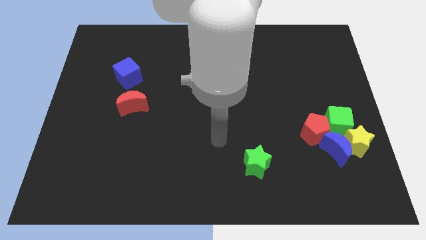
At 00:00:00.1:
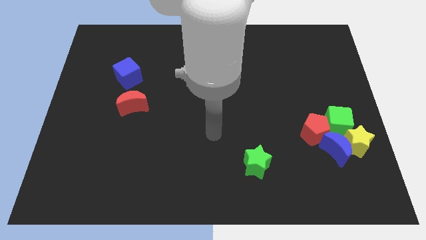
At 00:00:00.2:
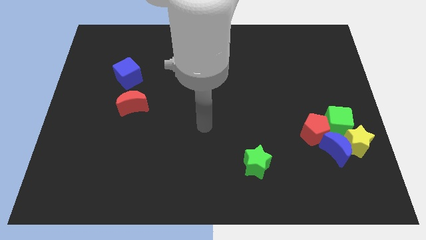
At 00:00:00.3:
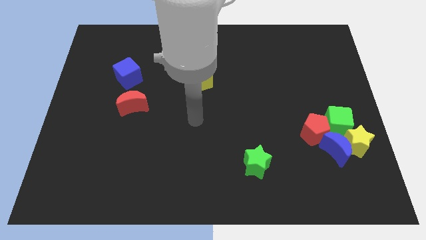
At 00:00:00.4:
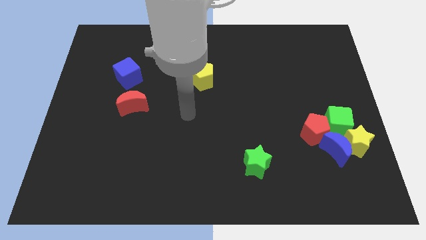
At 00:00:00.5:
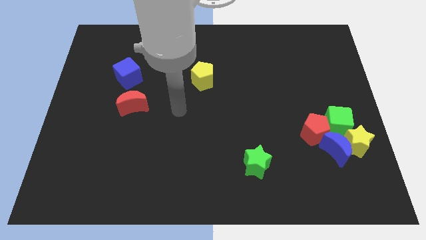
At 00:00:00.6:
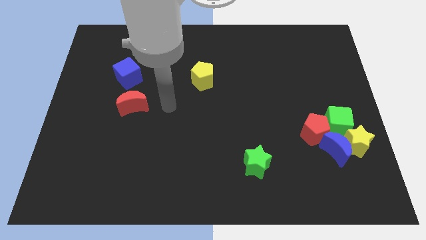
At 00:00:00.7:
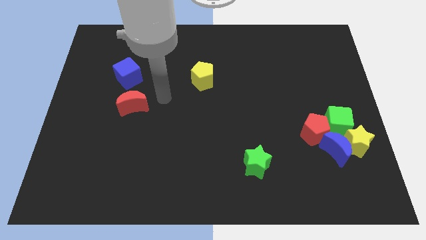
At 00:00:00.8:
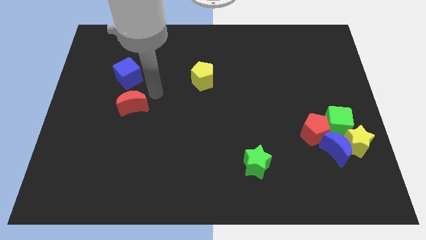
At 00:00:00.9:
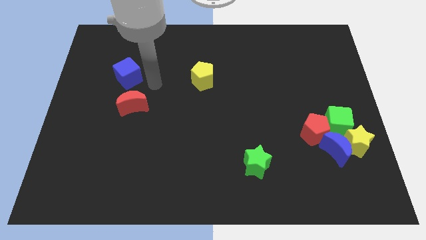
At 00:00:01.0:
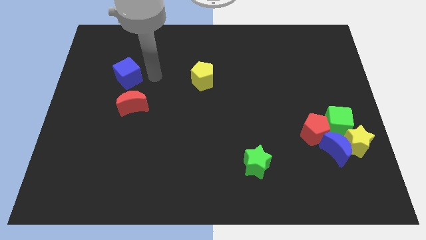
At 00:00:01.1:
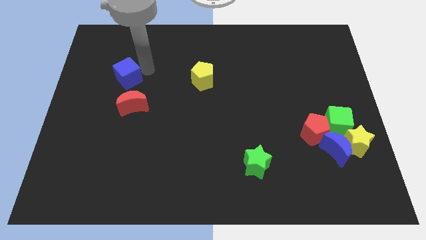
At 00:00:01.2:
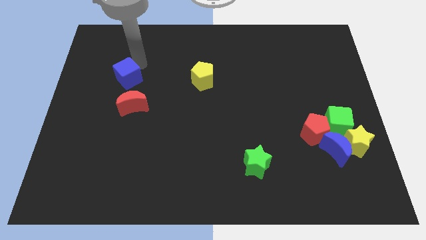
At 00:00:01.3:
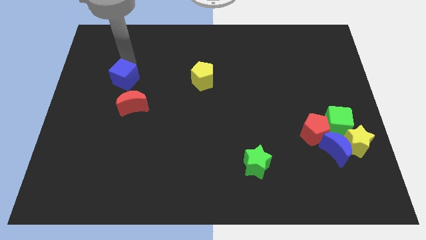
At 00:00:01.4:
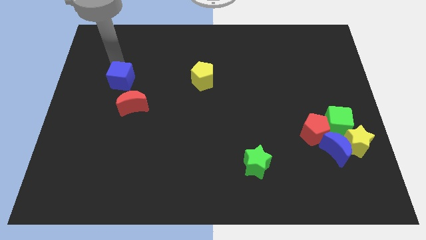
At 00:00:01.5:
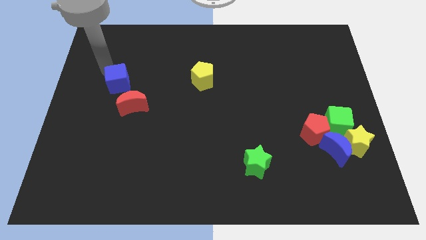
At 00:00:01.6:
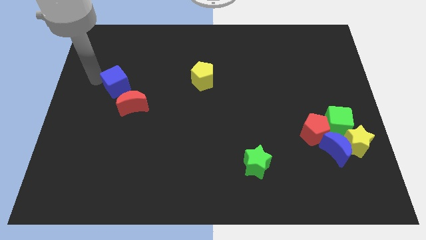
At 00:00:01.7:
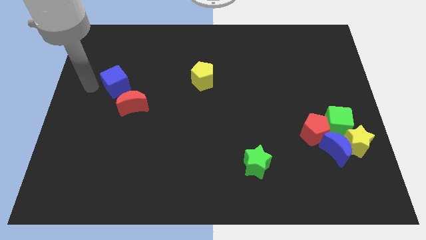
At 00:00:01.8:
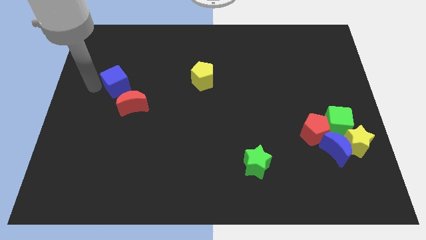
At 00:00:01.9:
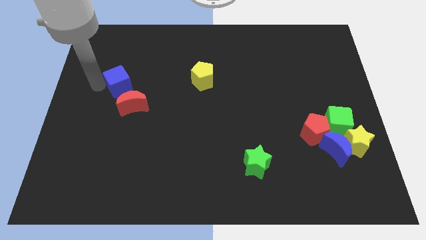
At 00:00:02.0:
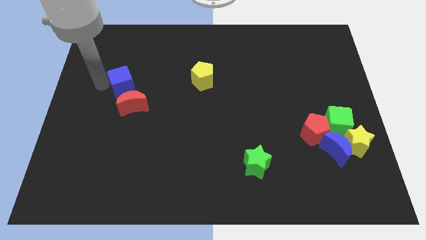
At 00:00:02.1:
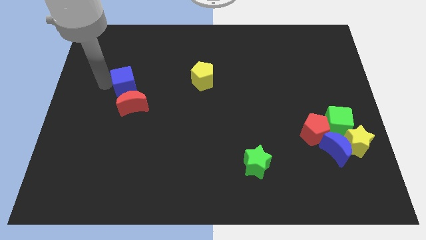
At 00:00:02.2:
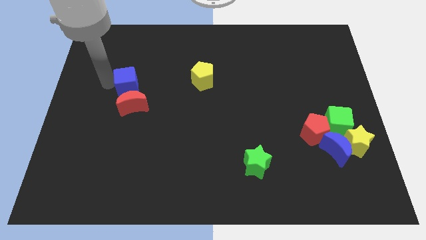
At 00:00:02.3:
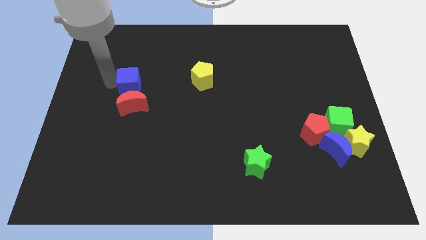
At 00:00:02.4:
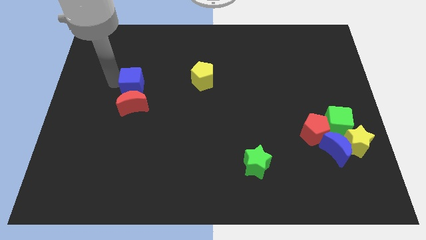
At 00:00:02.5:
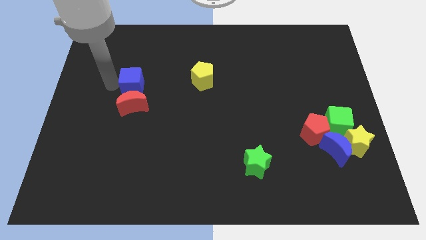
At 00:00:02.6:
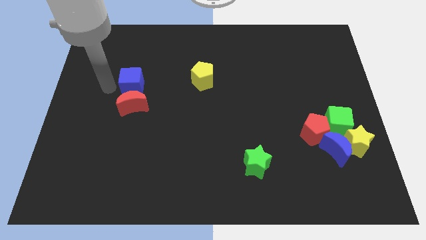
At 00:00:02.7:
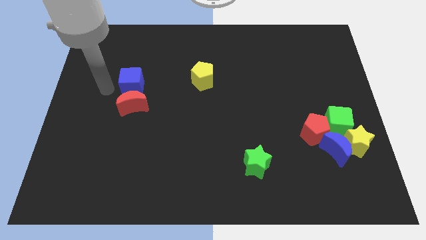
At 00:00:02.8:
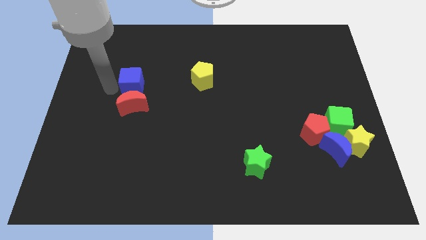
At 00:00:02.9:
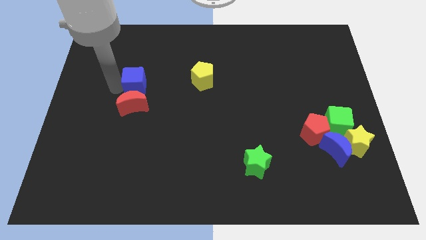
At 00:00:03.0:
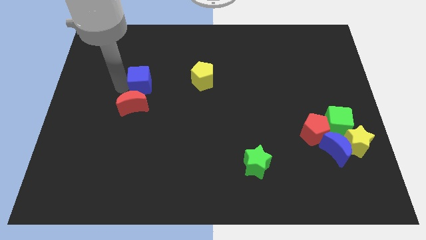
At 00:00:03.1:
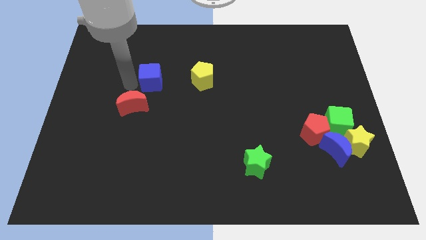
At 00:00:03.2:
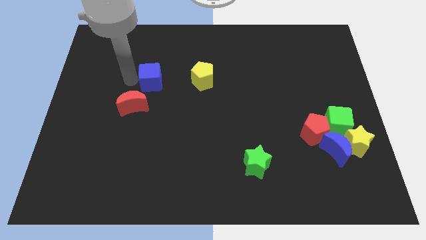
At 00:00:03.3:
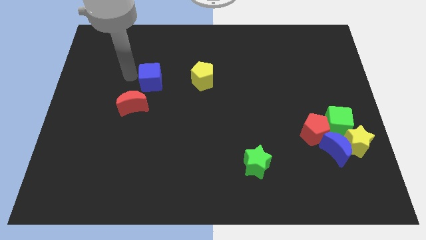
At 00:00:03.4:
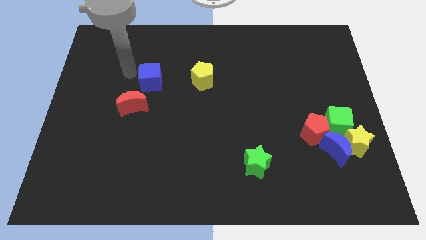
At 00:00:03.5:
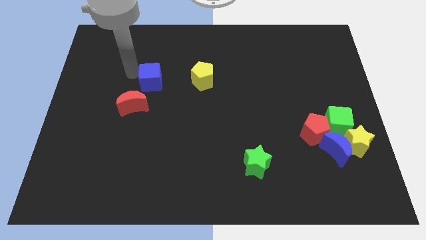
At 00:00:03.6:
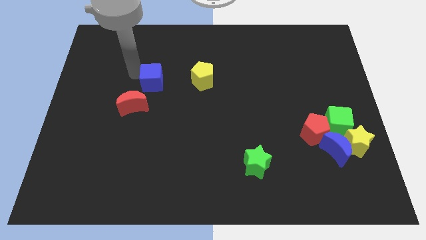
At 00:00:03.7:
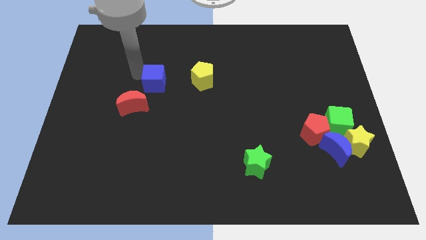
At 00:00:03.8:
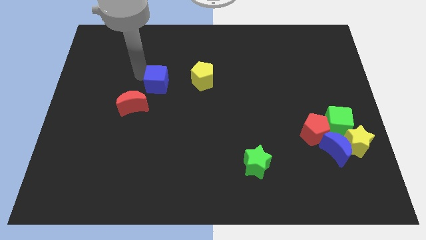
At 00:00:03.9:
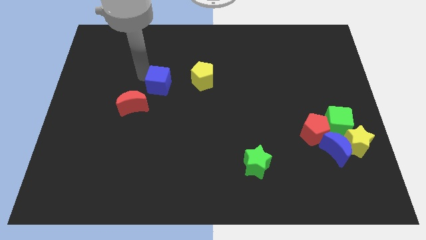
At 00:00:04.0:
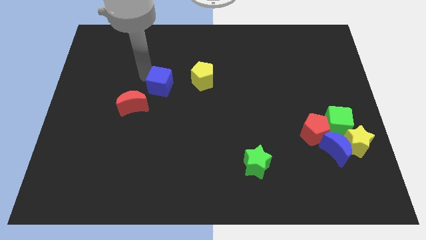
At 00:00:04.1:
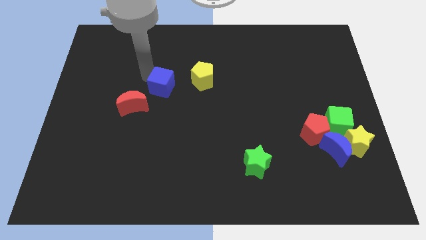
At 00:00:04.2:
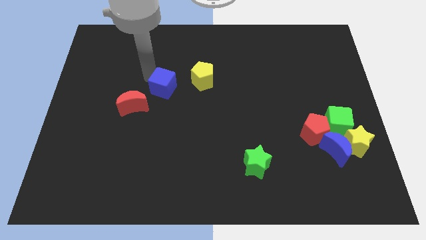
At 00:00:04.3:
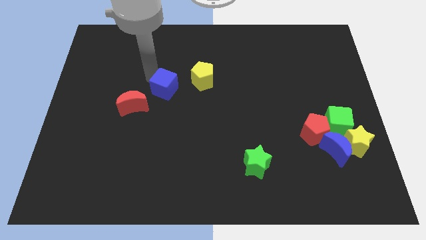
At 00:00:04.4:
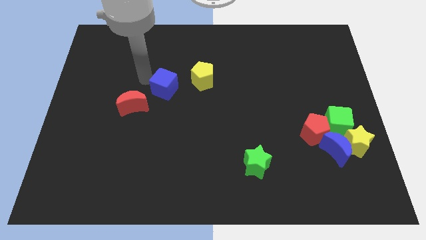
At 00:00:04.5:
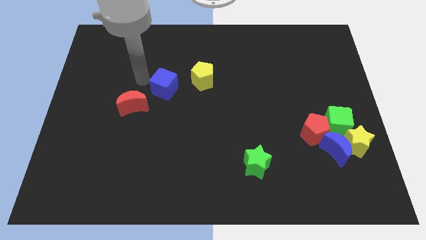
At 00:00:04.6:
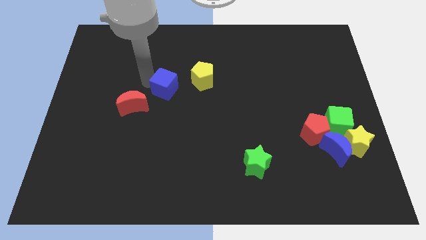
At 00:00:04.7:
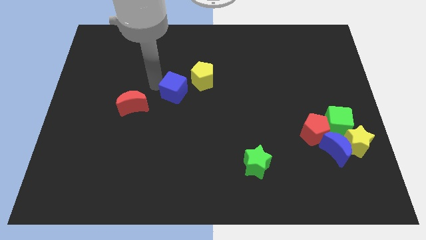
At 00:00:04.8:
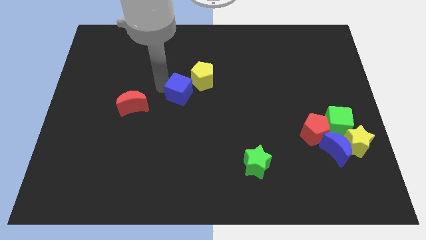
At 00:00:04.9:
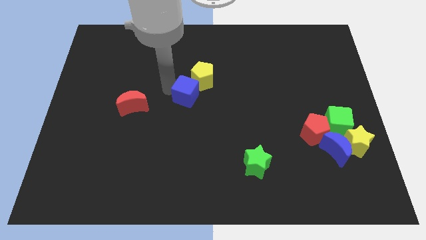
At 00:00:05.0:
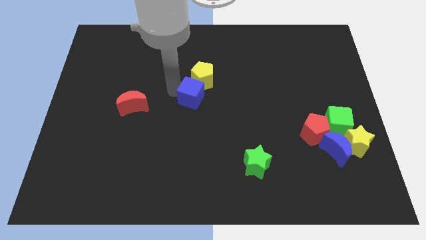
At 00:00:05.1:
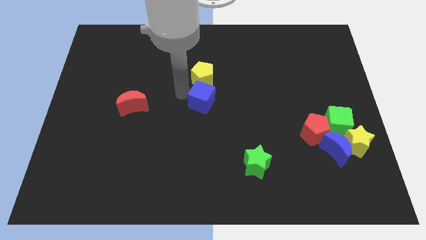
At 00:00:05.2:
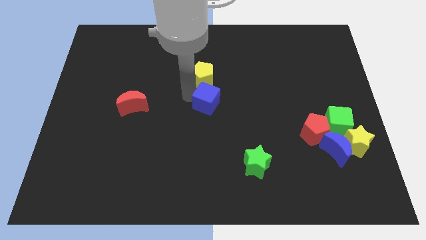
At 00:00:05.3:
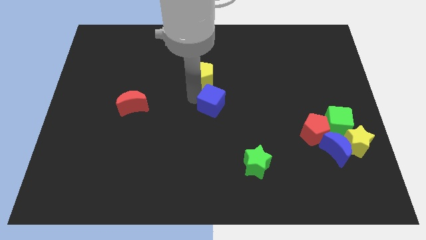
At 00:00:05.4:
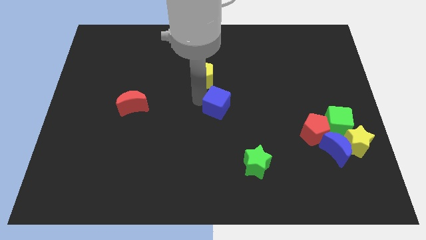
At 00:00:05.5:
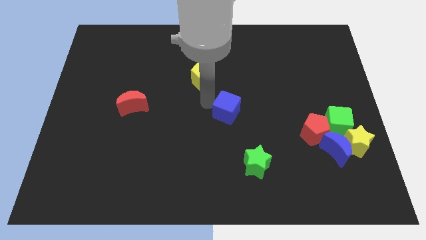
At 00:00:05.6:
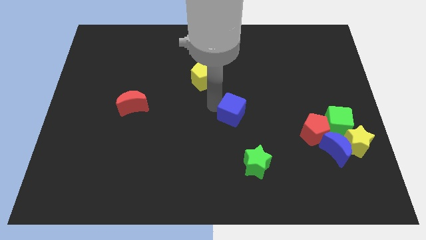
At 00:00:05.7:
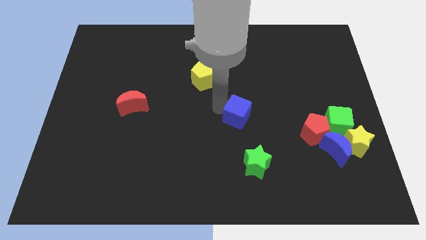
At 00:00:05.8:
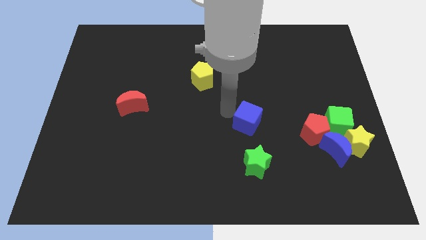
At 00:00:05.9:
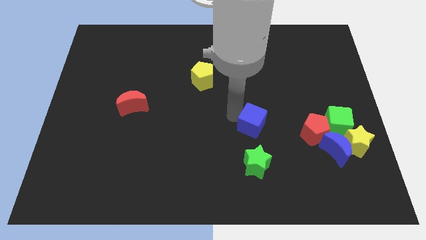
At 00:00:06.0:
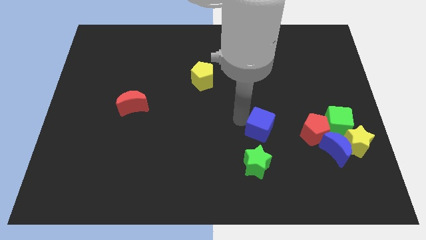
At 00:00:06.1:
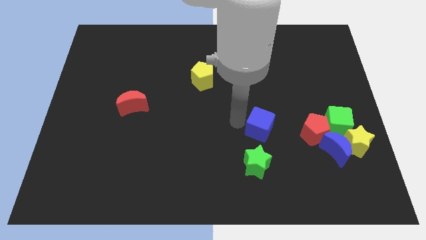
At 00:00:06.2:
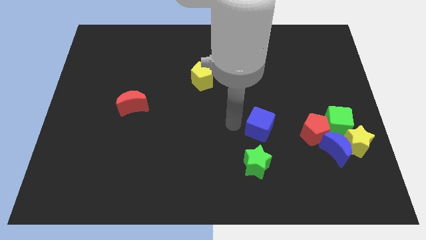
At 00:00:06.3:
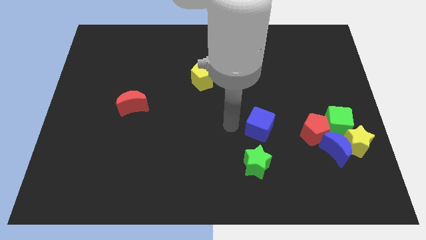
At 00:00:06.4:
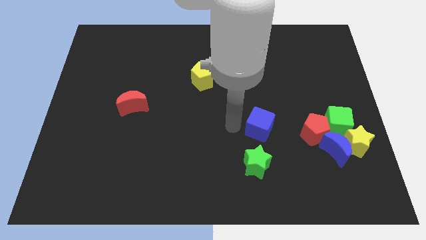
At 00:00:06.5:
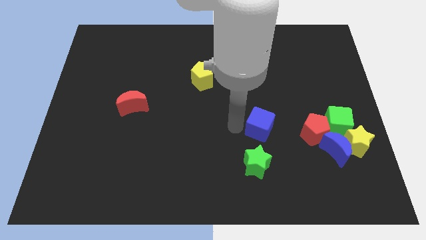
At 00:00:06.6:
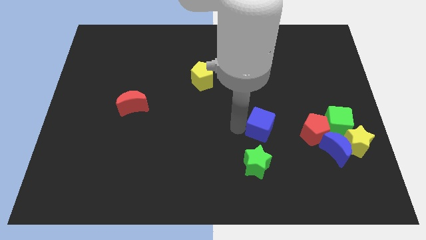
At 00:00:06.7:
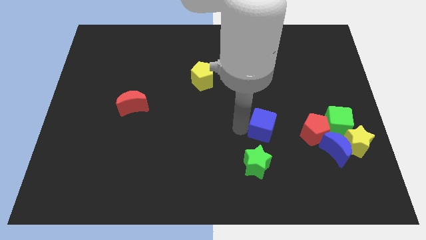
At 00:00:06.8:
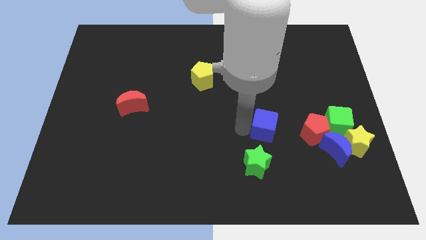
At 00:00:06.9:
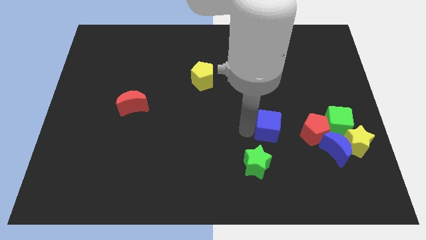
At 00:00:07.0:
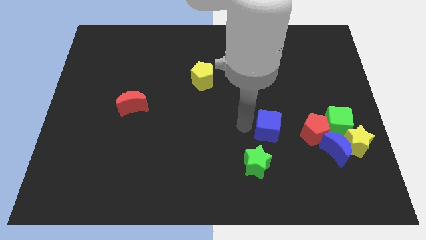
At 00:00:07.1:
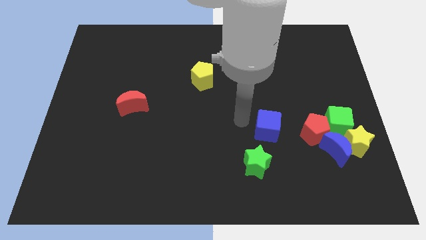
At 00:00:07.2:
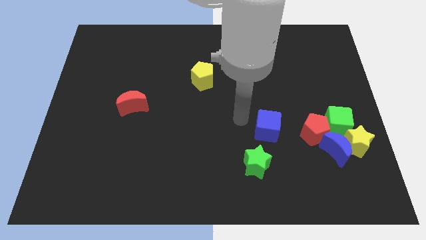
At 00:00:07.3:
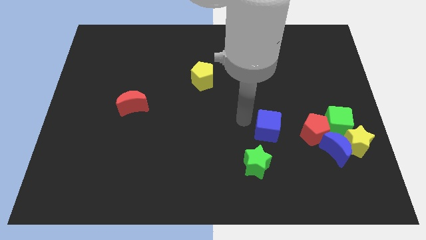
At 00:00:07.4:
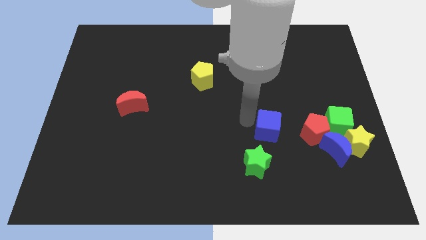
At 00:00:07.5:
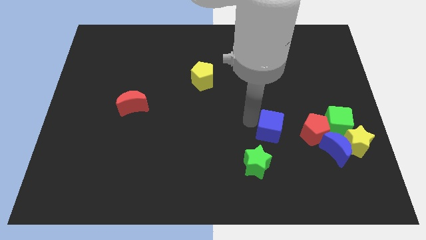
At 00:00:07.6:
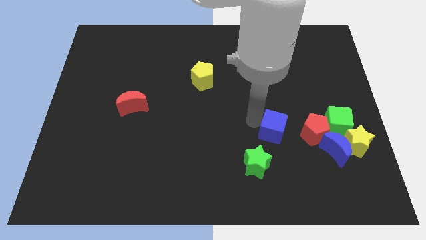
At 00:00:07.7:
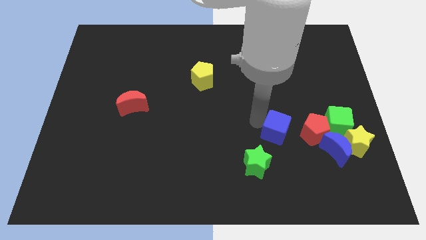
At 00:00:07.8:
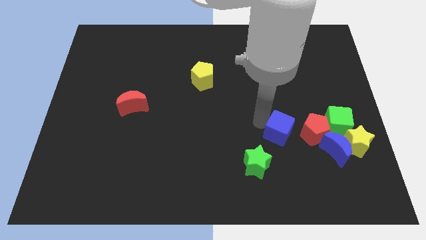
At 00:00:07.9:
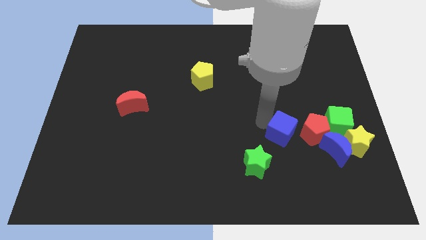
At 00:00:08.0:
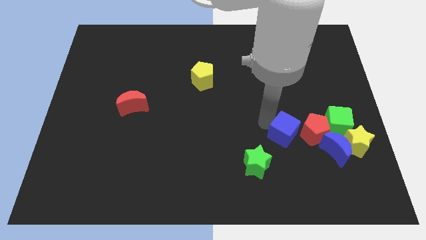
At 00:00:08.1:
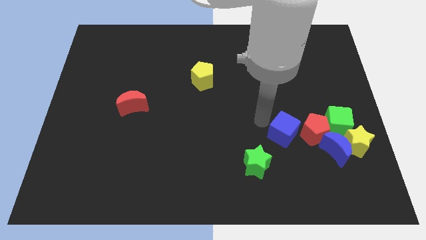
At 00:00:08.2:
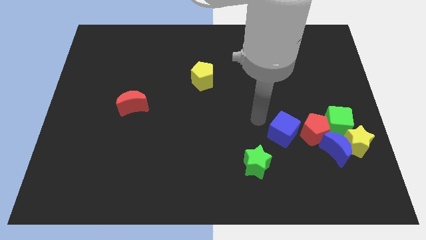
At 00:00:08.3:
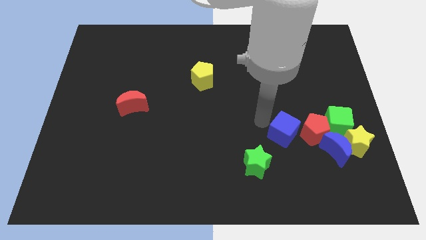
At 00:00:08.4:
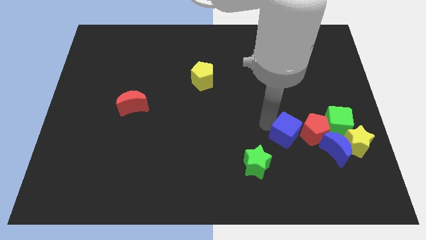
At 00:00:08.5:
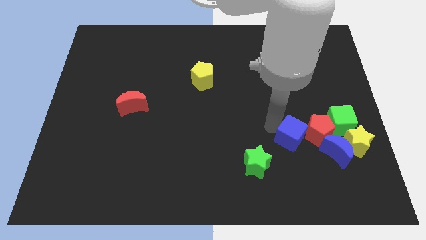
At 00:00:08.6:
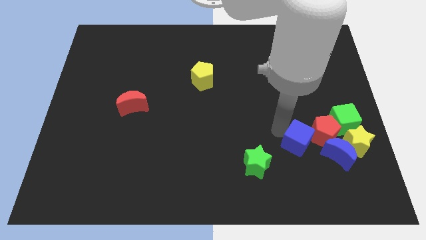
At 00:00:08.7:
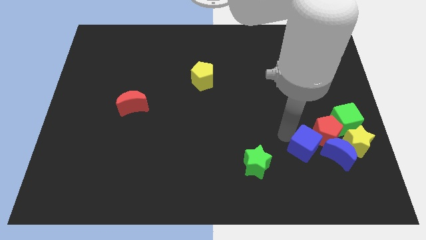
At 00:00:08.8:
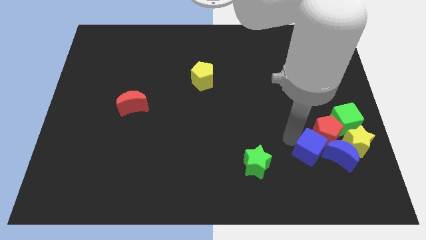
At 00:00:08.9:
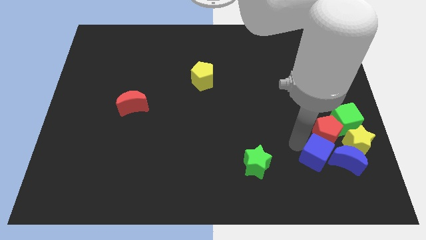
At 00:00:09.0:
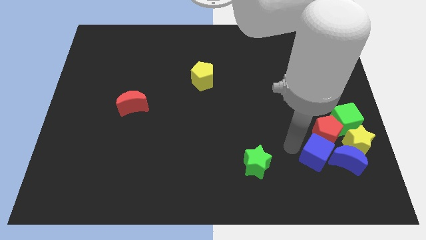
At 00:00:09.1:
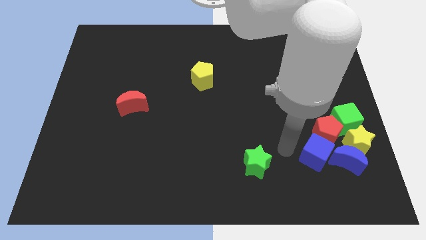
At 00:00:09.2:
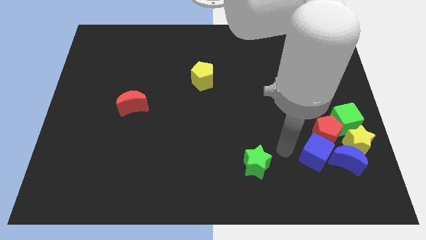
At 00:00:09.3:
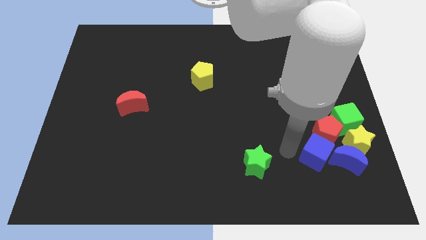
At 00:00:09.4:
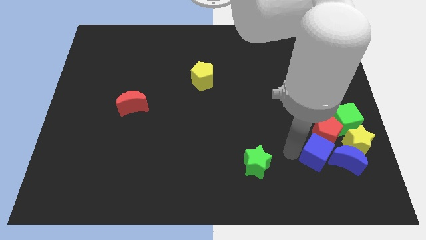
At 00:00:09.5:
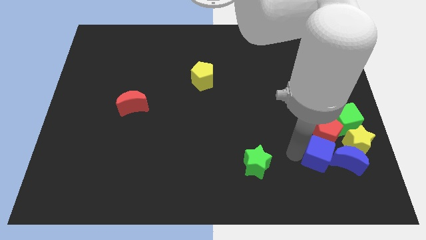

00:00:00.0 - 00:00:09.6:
slide the blue cube towards the blue moon
